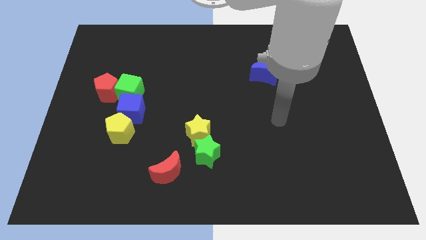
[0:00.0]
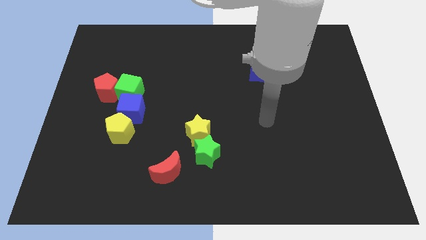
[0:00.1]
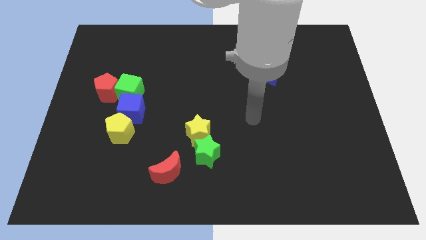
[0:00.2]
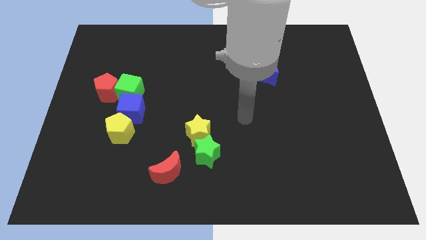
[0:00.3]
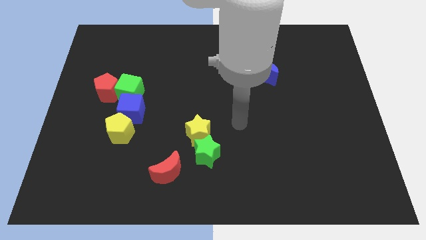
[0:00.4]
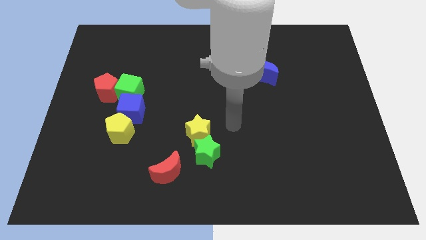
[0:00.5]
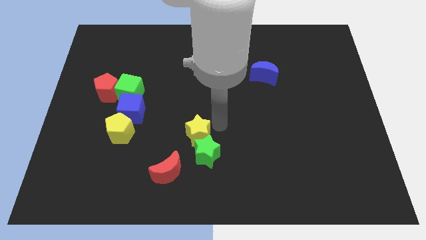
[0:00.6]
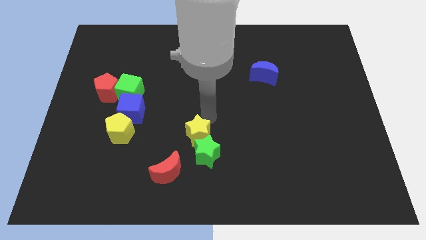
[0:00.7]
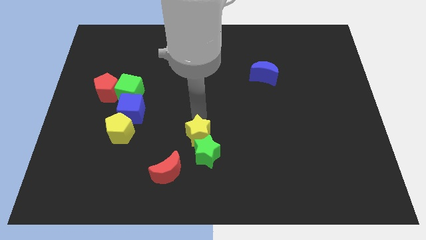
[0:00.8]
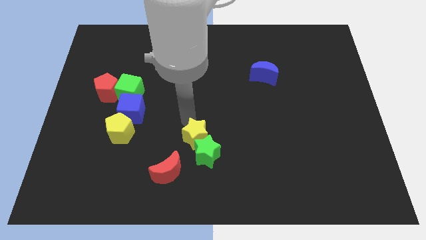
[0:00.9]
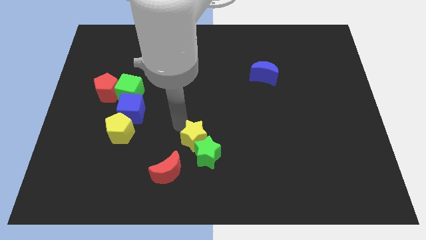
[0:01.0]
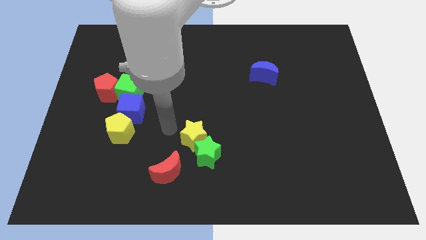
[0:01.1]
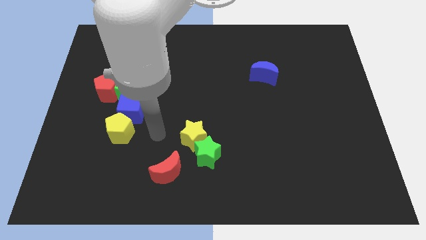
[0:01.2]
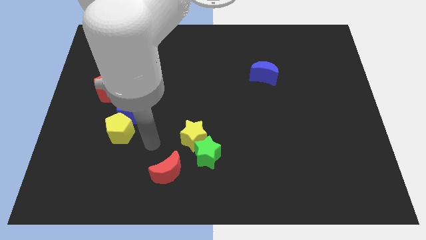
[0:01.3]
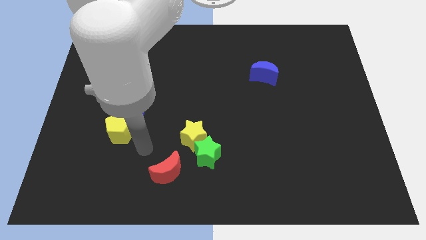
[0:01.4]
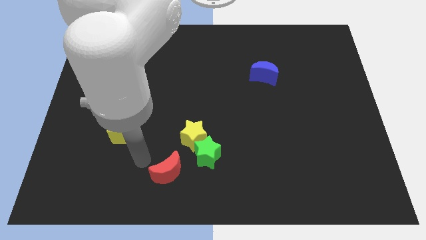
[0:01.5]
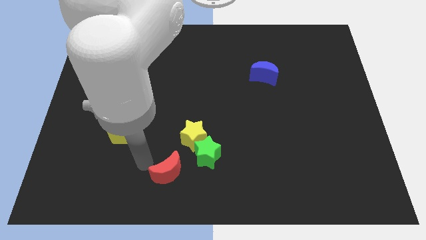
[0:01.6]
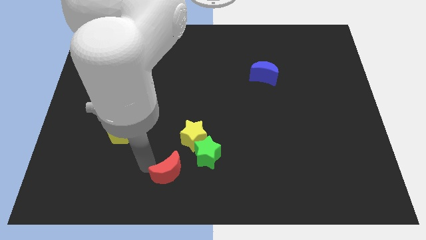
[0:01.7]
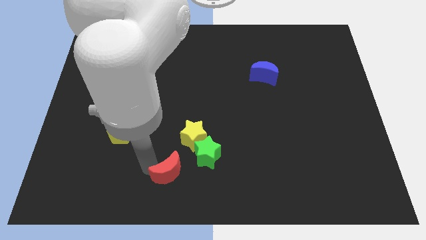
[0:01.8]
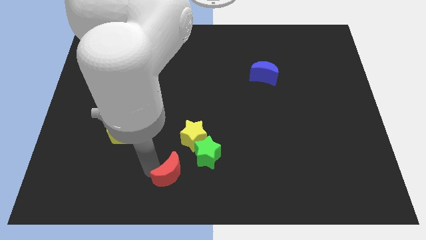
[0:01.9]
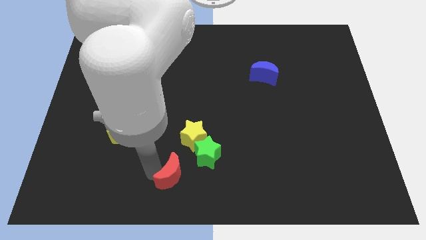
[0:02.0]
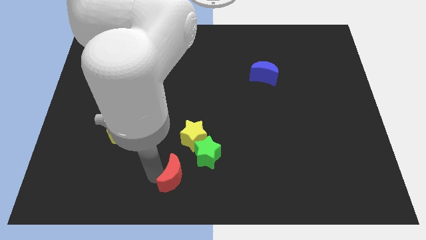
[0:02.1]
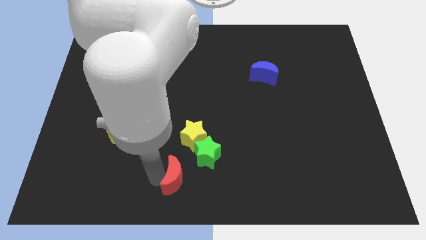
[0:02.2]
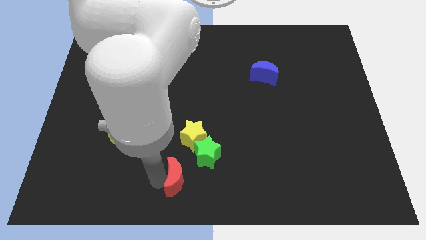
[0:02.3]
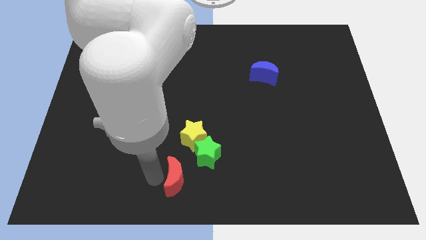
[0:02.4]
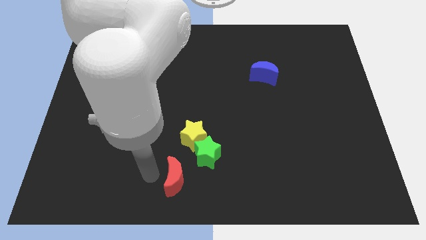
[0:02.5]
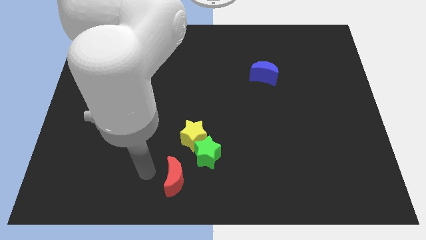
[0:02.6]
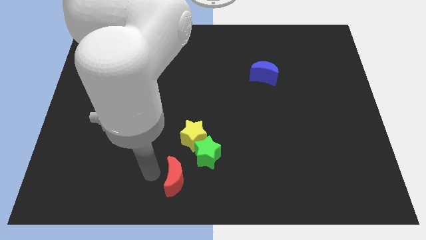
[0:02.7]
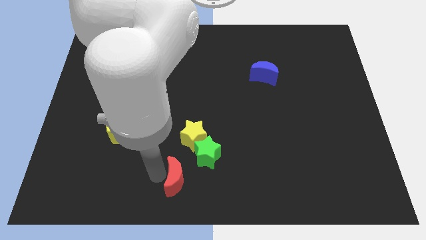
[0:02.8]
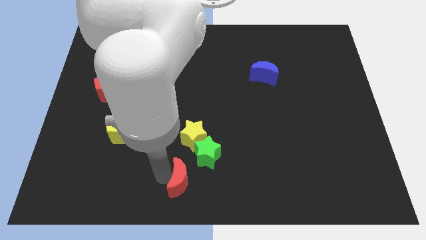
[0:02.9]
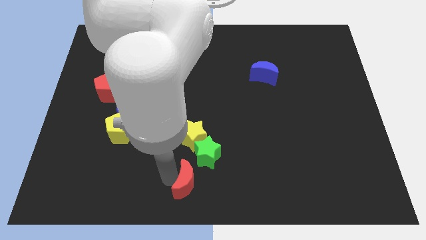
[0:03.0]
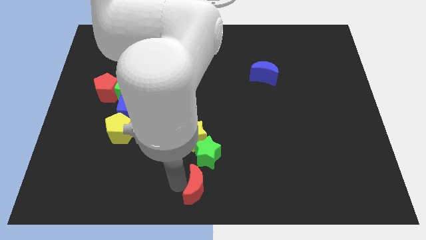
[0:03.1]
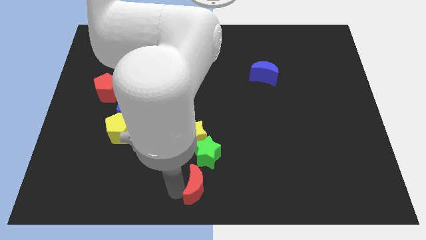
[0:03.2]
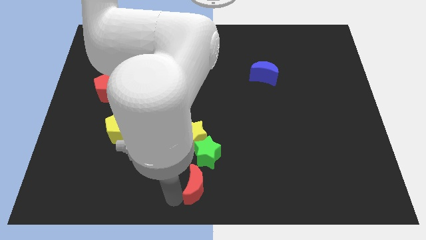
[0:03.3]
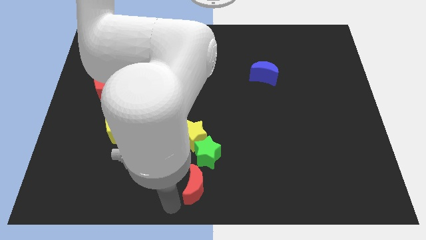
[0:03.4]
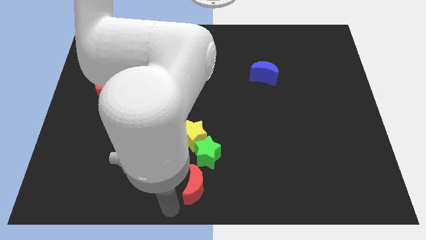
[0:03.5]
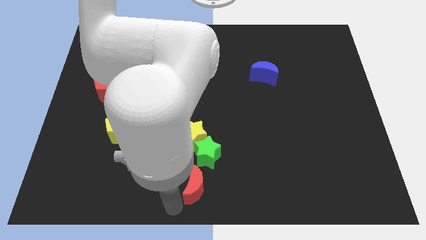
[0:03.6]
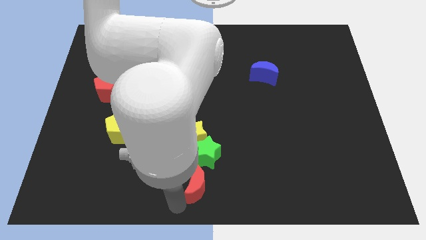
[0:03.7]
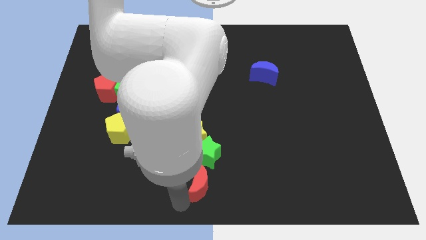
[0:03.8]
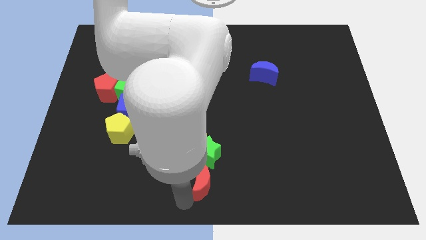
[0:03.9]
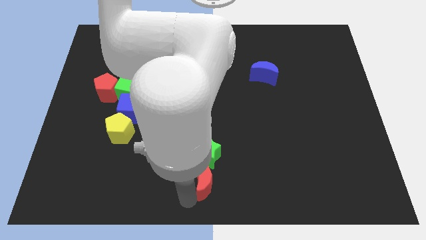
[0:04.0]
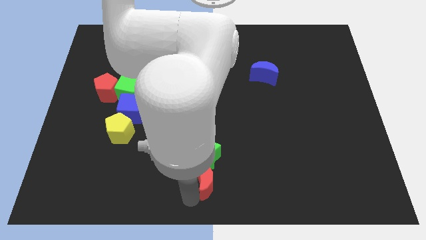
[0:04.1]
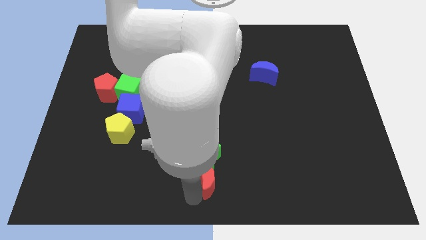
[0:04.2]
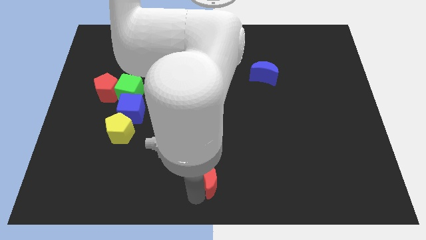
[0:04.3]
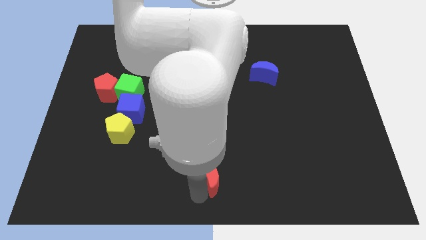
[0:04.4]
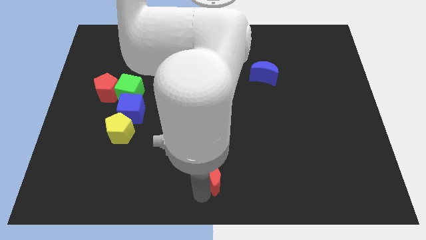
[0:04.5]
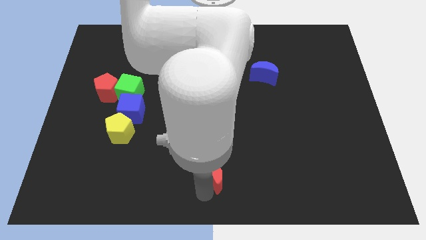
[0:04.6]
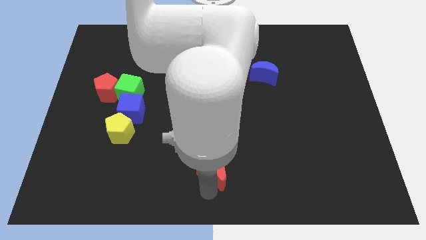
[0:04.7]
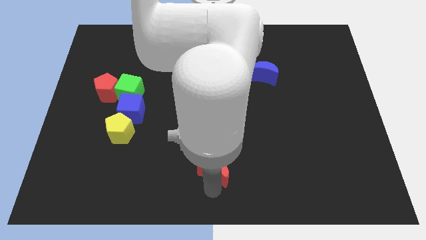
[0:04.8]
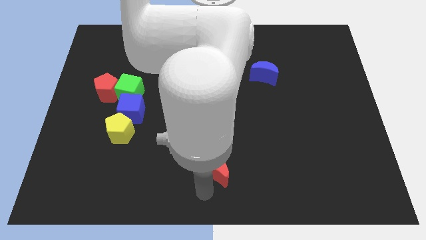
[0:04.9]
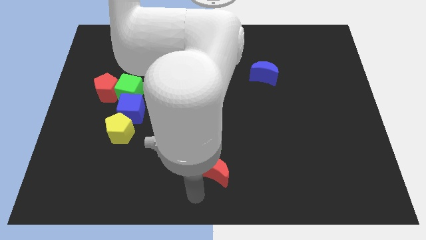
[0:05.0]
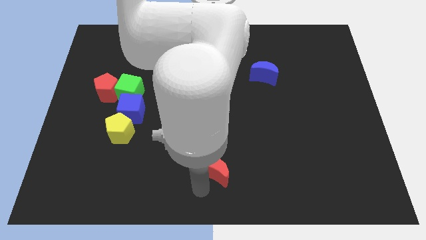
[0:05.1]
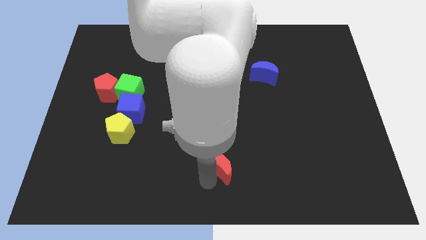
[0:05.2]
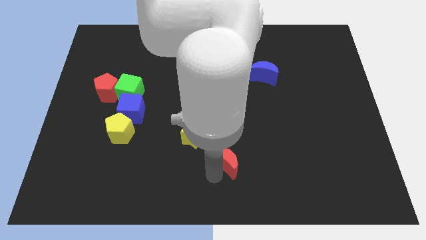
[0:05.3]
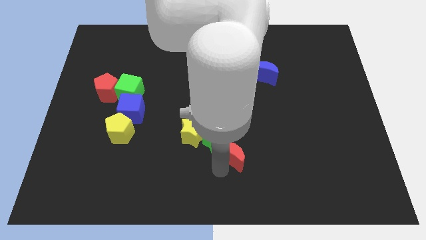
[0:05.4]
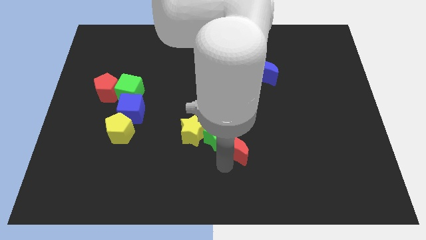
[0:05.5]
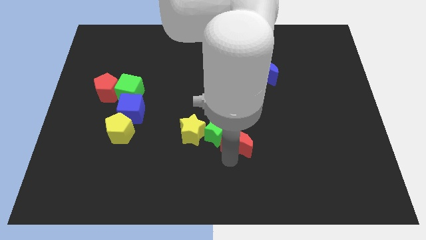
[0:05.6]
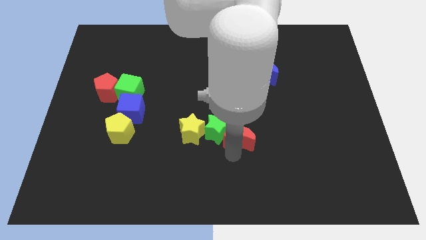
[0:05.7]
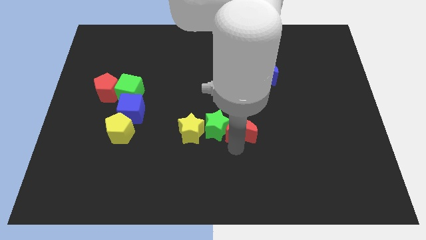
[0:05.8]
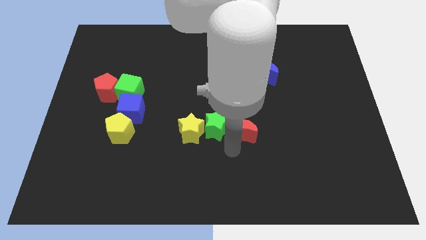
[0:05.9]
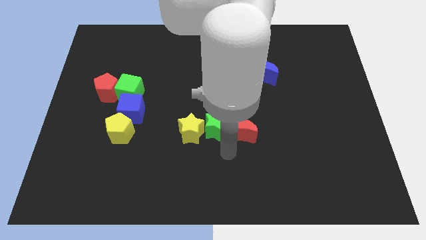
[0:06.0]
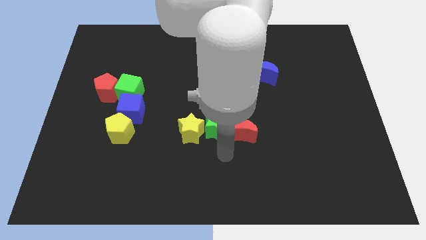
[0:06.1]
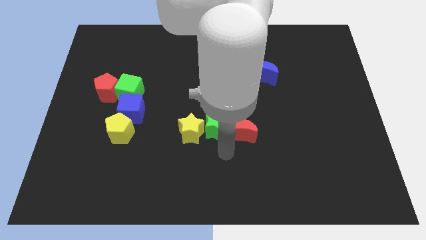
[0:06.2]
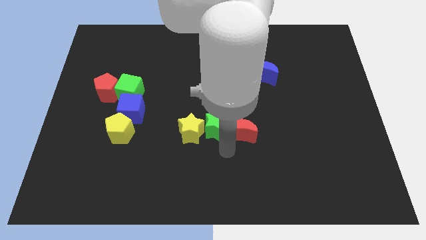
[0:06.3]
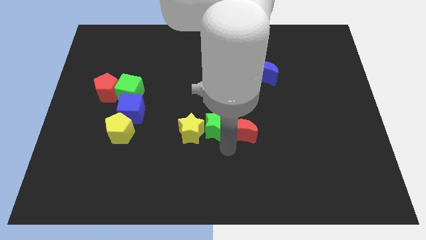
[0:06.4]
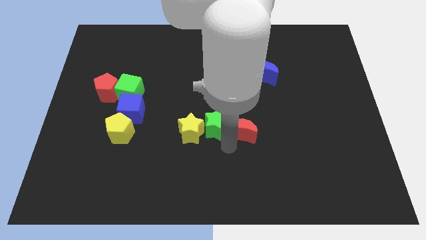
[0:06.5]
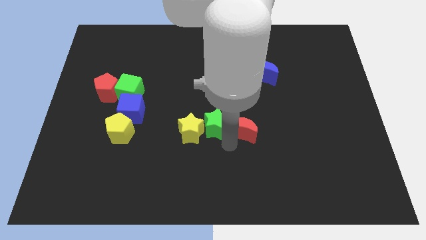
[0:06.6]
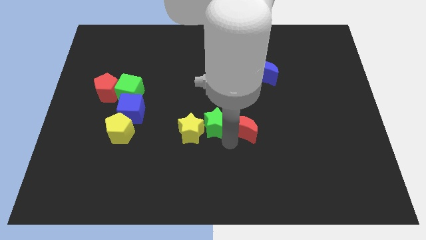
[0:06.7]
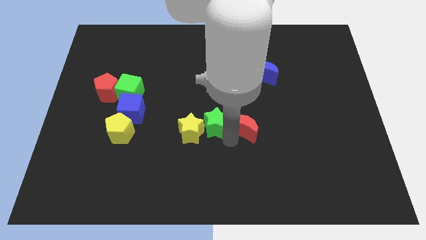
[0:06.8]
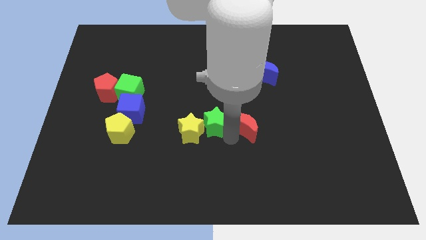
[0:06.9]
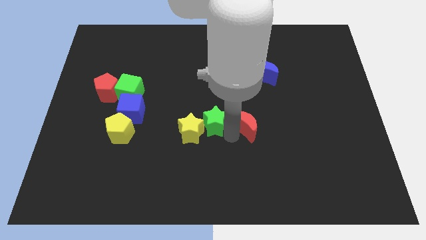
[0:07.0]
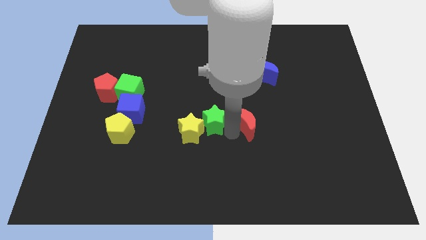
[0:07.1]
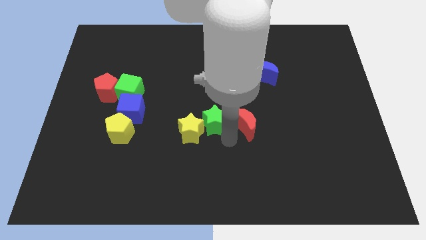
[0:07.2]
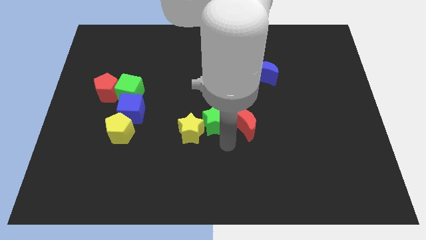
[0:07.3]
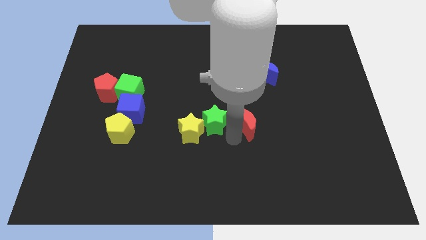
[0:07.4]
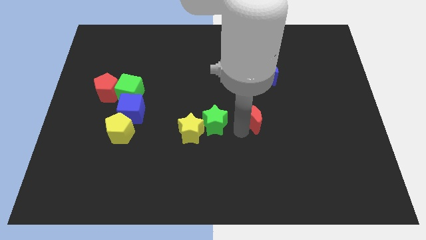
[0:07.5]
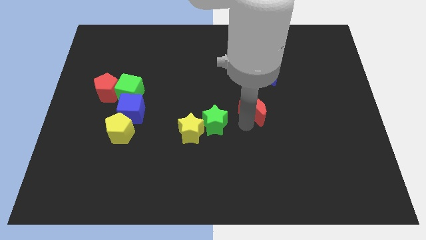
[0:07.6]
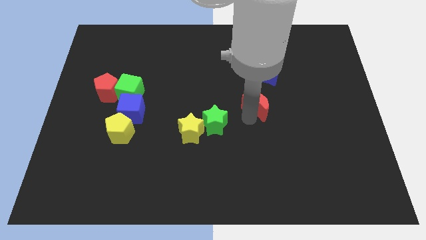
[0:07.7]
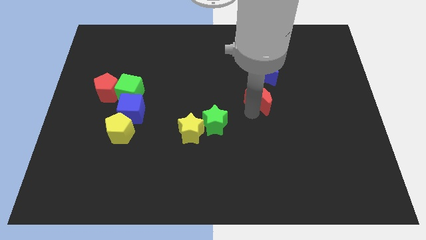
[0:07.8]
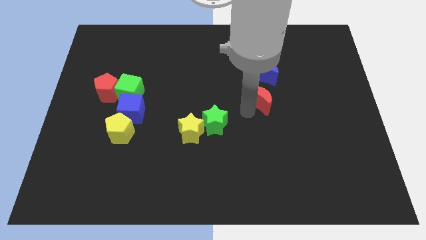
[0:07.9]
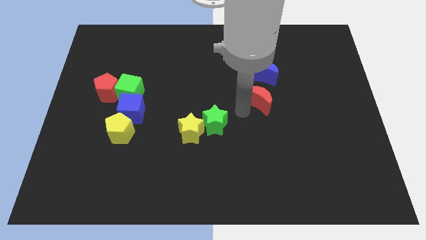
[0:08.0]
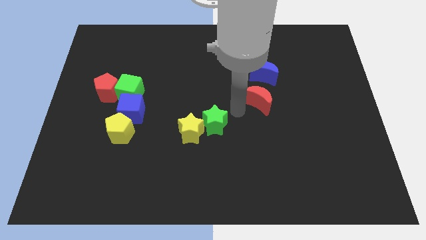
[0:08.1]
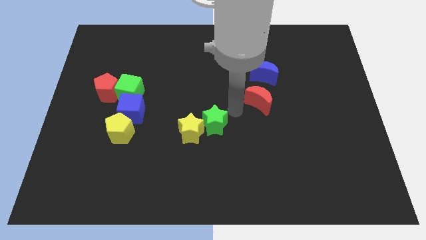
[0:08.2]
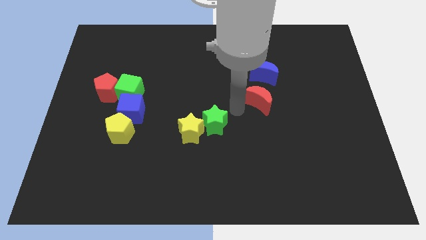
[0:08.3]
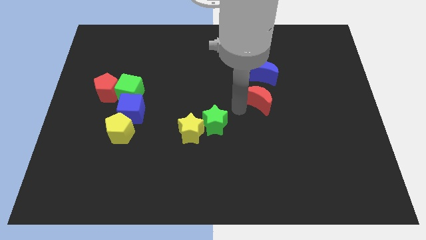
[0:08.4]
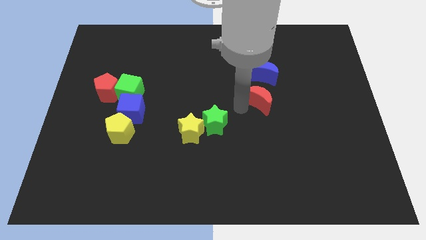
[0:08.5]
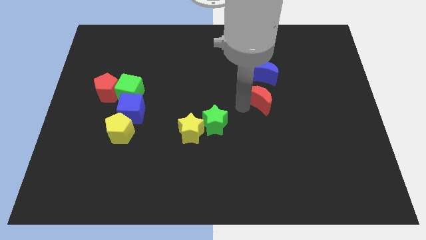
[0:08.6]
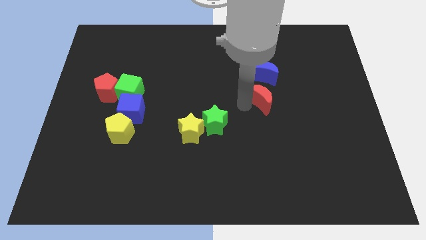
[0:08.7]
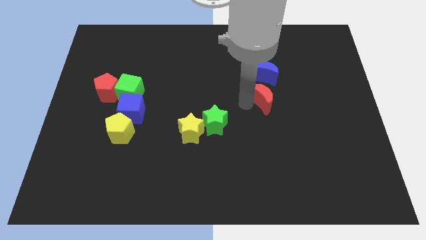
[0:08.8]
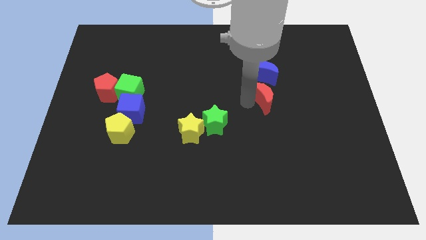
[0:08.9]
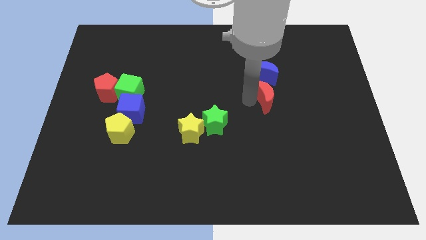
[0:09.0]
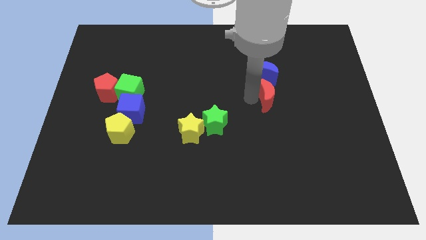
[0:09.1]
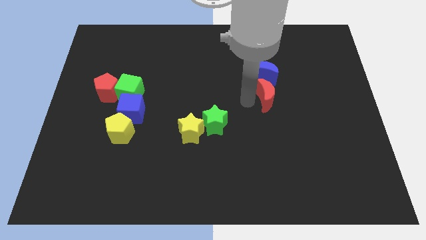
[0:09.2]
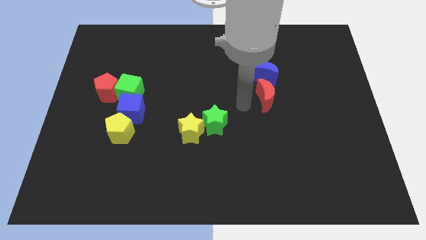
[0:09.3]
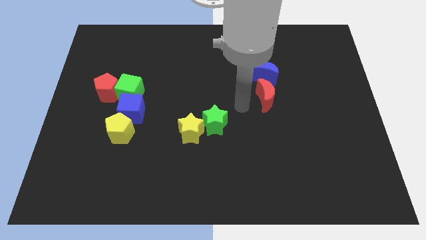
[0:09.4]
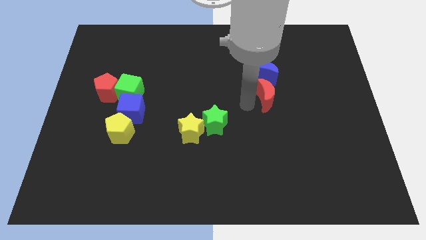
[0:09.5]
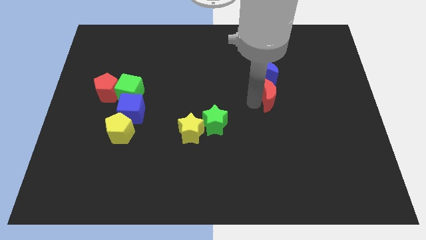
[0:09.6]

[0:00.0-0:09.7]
slide the red moon diagonally down and to the right of the blue moon
